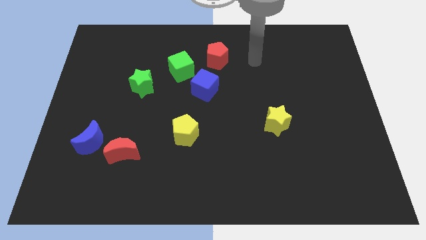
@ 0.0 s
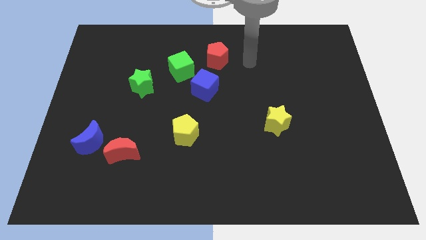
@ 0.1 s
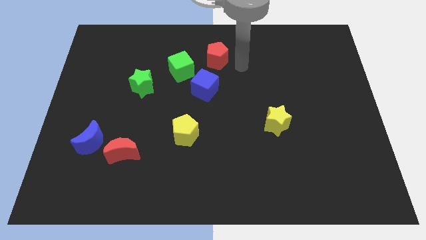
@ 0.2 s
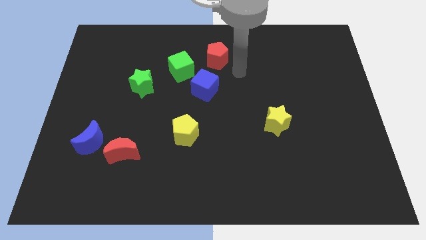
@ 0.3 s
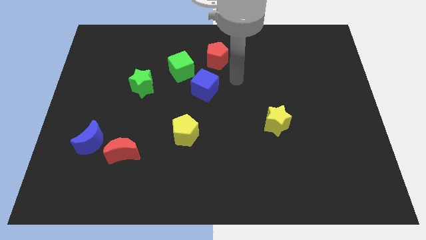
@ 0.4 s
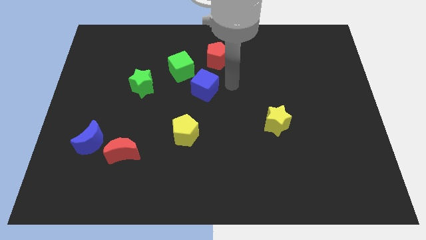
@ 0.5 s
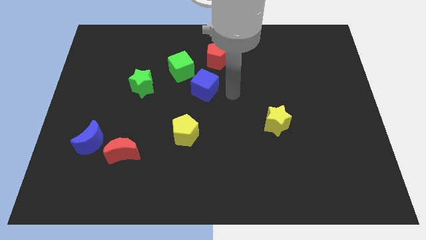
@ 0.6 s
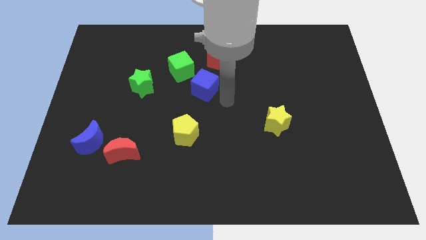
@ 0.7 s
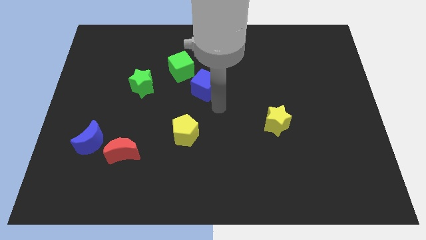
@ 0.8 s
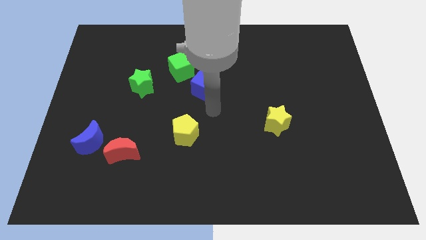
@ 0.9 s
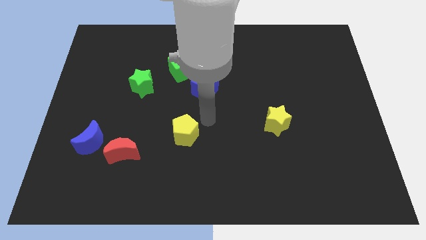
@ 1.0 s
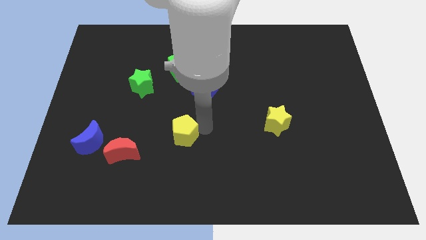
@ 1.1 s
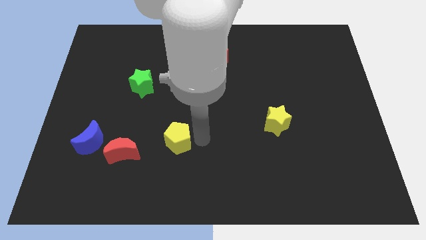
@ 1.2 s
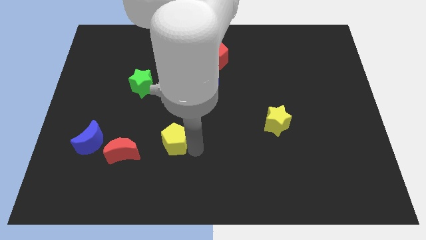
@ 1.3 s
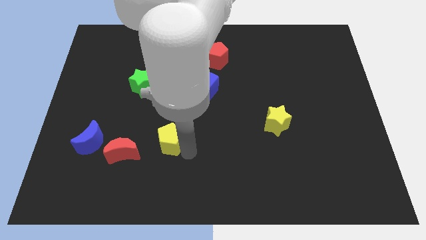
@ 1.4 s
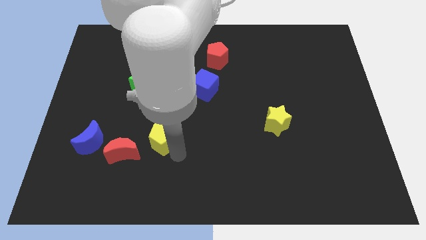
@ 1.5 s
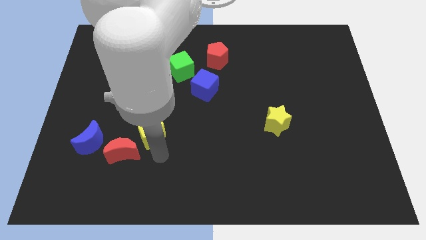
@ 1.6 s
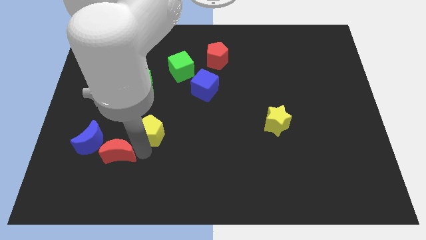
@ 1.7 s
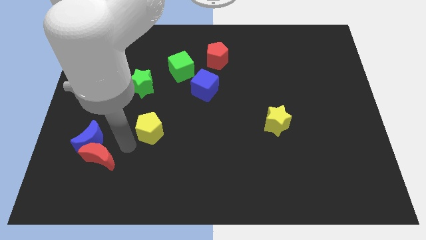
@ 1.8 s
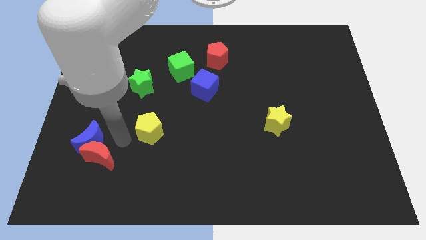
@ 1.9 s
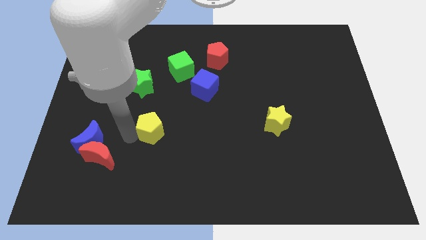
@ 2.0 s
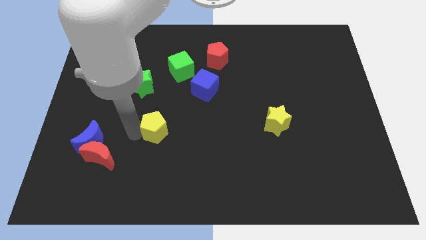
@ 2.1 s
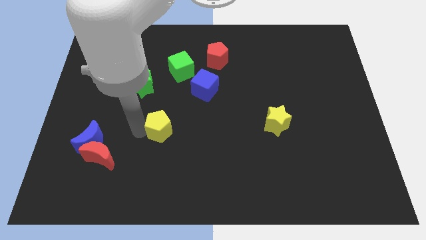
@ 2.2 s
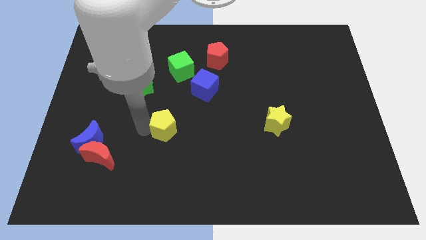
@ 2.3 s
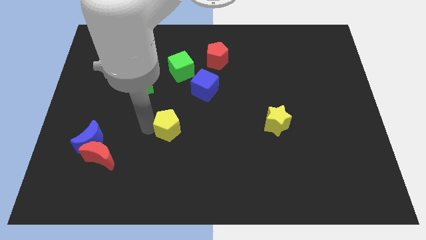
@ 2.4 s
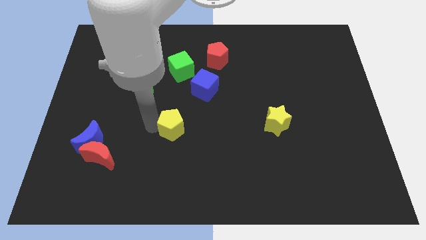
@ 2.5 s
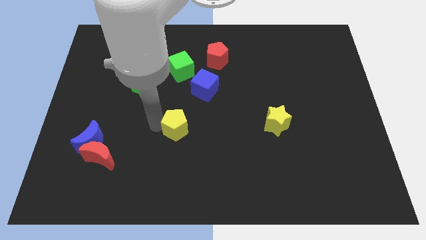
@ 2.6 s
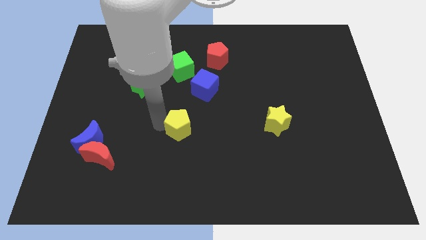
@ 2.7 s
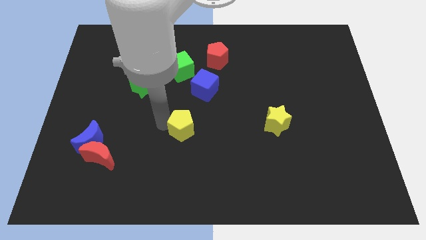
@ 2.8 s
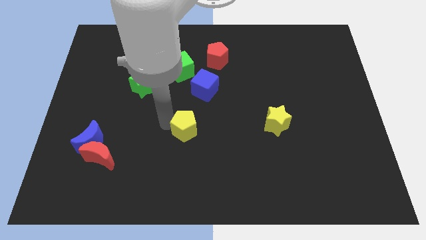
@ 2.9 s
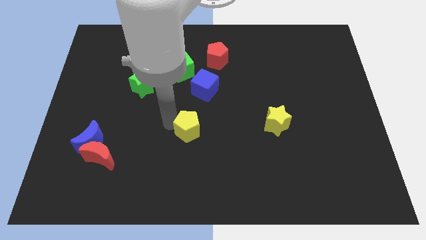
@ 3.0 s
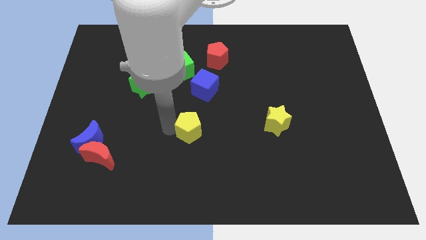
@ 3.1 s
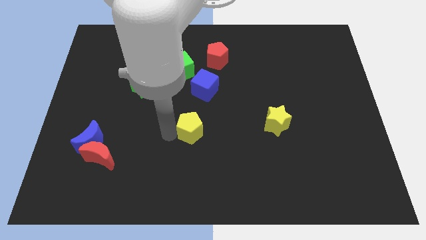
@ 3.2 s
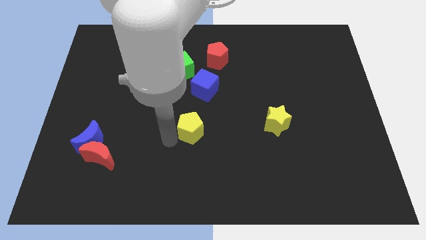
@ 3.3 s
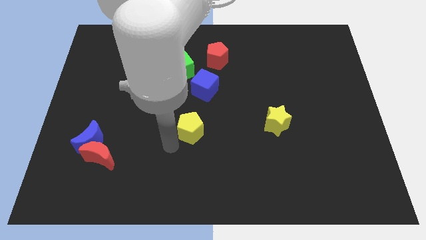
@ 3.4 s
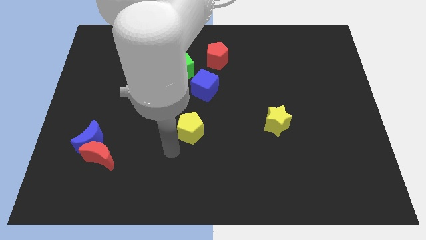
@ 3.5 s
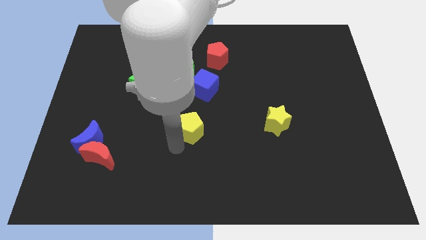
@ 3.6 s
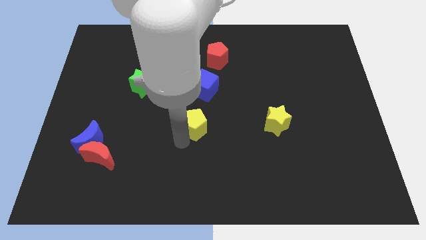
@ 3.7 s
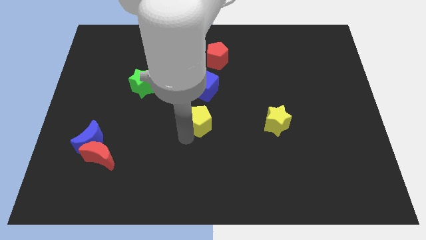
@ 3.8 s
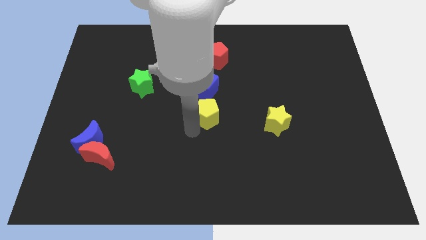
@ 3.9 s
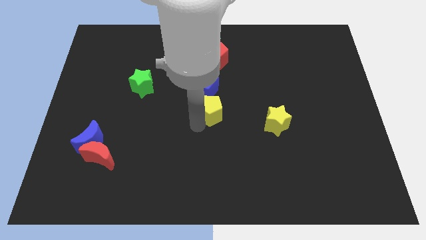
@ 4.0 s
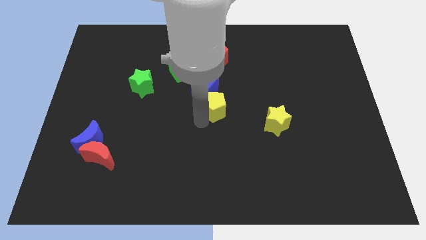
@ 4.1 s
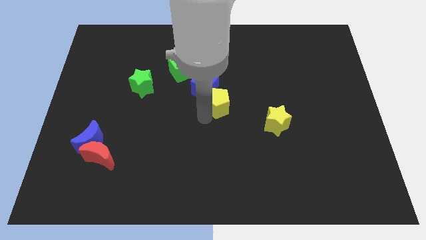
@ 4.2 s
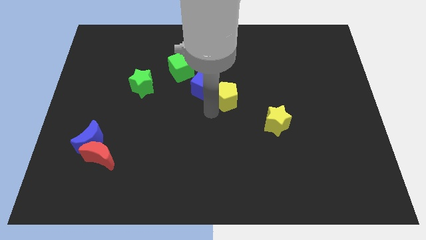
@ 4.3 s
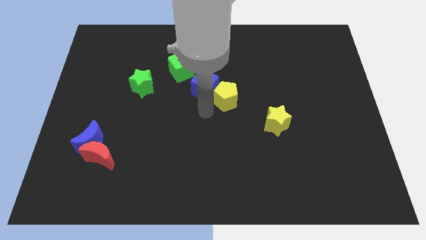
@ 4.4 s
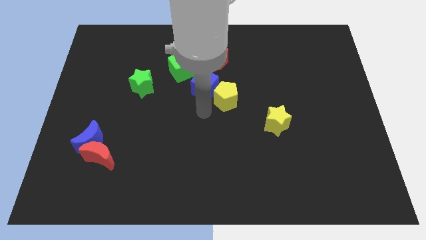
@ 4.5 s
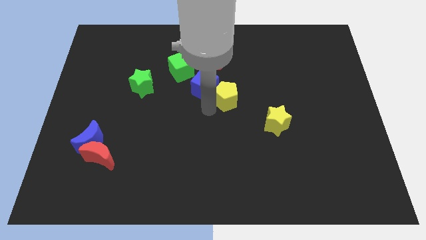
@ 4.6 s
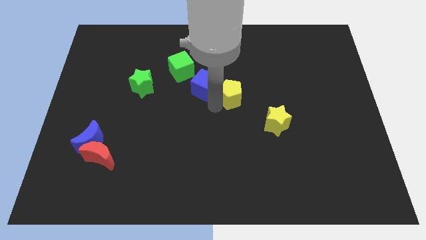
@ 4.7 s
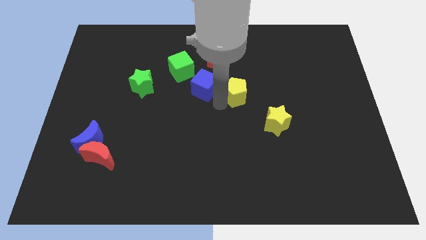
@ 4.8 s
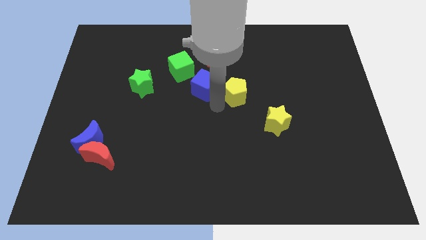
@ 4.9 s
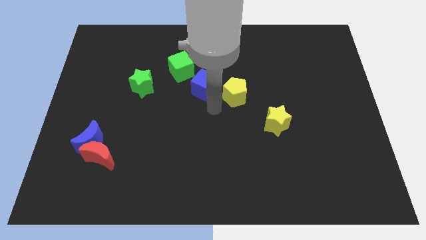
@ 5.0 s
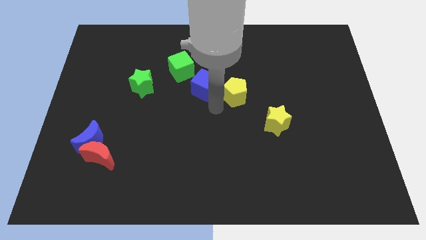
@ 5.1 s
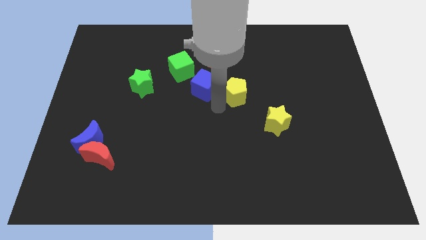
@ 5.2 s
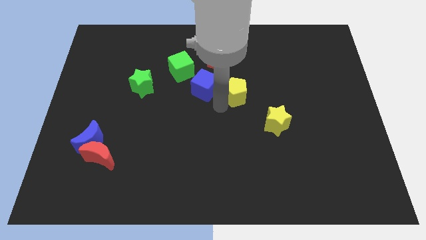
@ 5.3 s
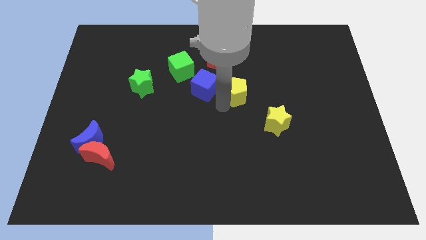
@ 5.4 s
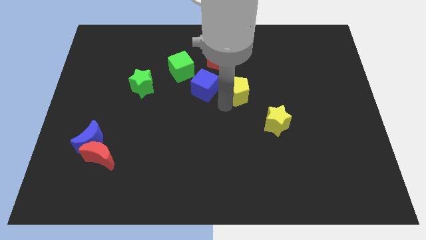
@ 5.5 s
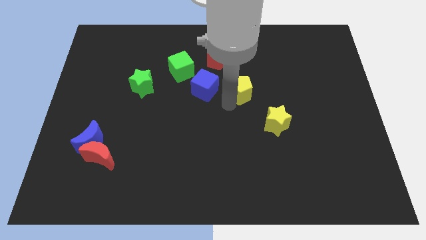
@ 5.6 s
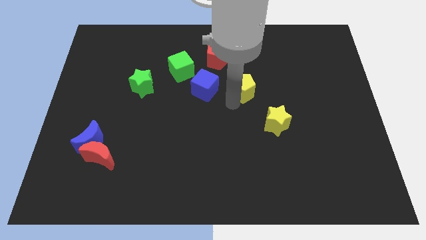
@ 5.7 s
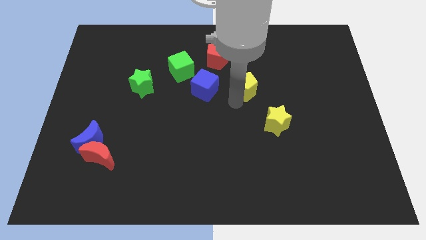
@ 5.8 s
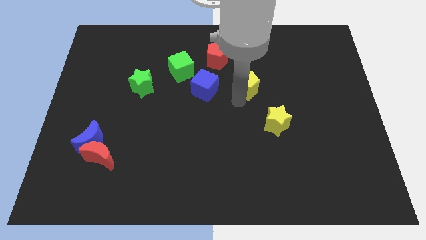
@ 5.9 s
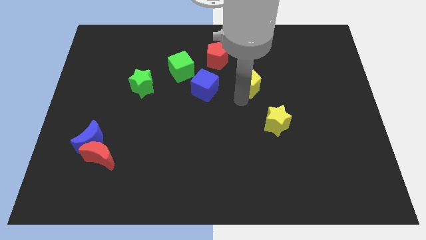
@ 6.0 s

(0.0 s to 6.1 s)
push the yellow pentagon diagonally up and right

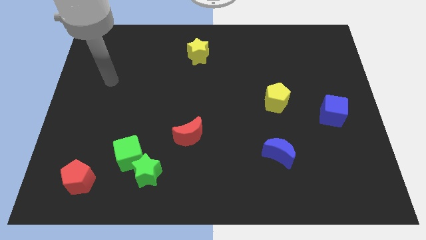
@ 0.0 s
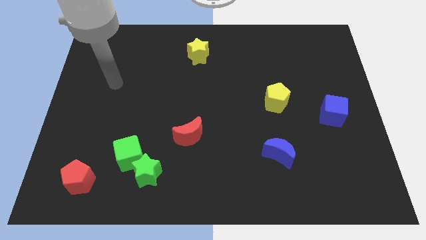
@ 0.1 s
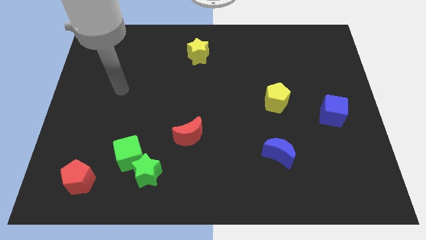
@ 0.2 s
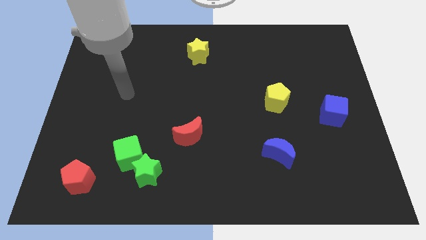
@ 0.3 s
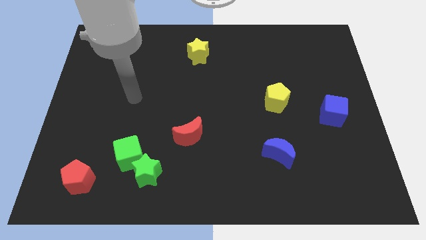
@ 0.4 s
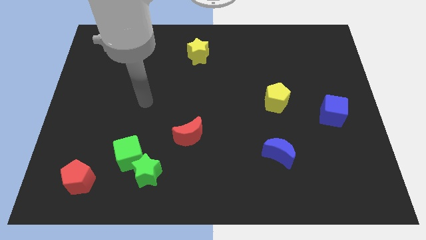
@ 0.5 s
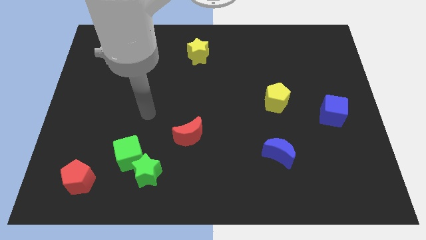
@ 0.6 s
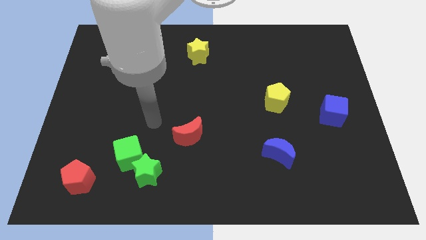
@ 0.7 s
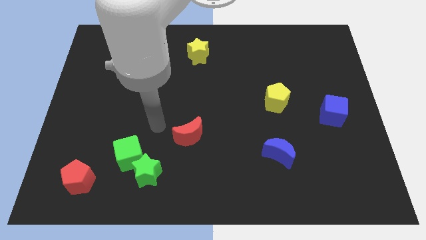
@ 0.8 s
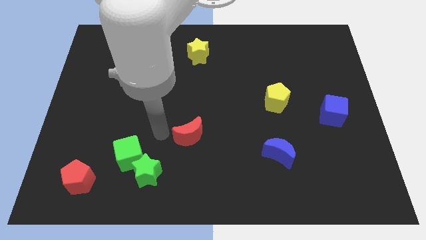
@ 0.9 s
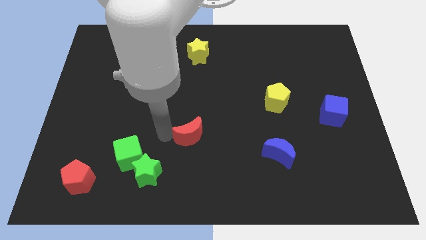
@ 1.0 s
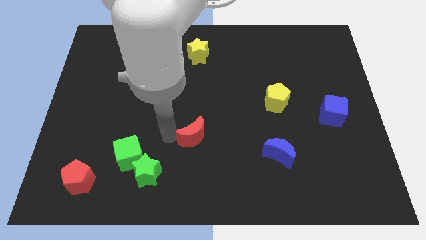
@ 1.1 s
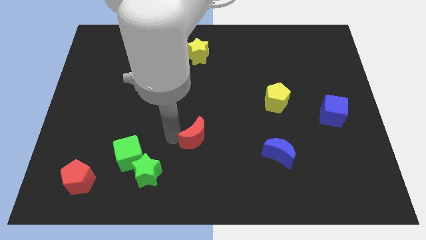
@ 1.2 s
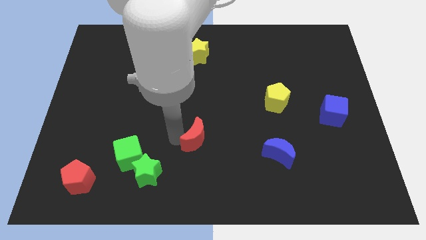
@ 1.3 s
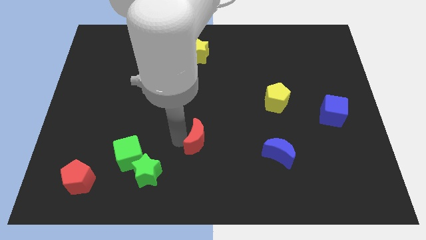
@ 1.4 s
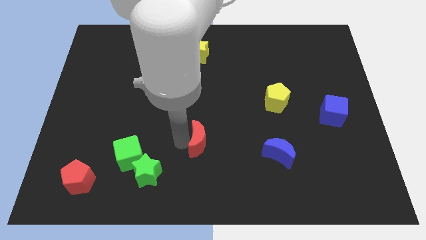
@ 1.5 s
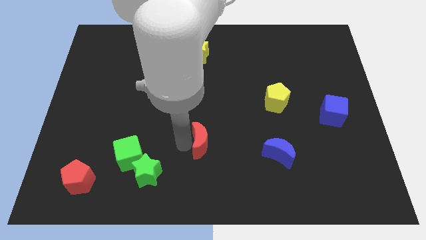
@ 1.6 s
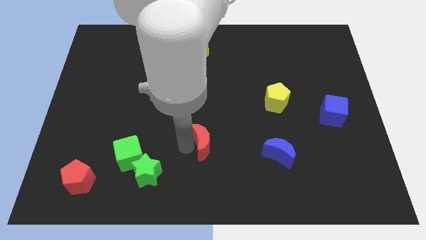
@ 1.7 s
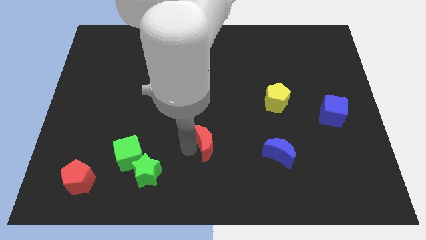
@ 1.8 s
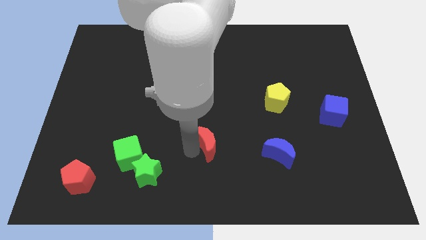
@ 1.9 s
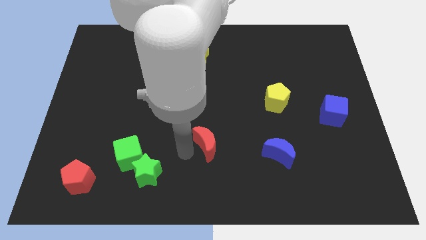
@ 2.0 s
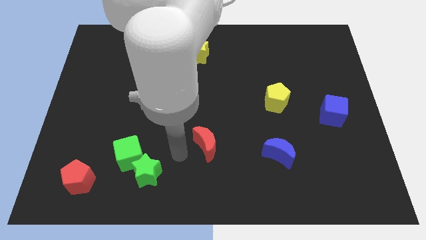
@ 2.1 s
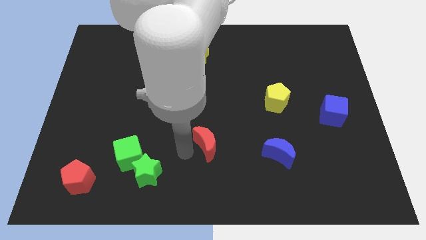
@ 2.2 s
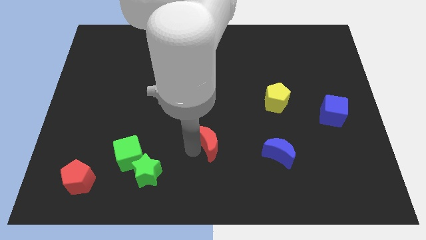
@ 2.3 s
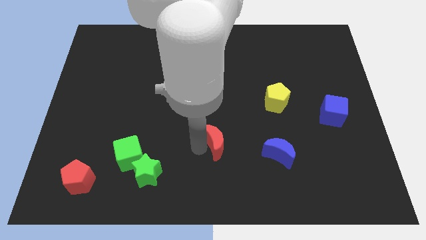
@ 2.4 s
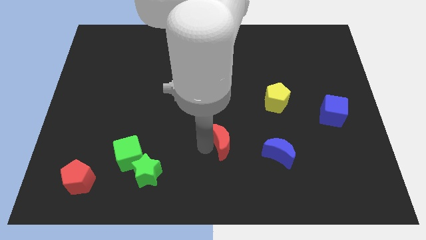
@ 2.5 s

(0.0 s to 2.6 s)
slide the red moon to the right a little bit
